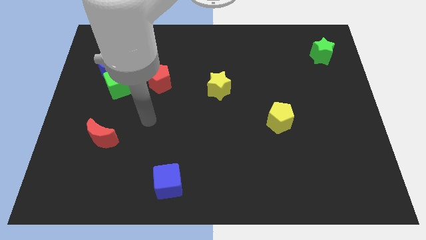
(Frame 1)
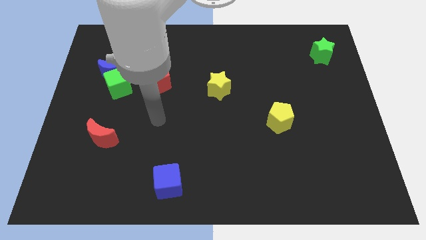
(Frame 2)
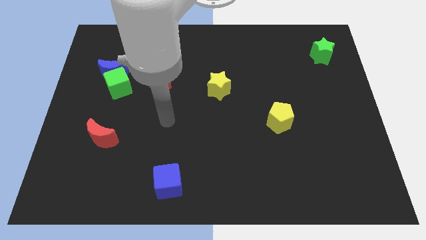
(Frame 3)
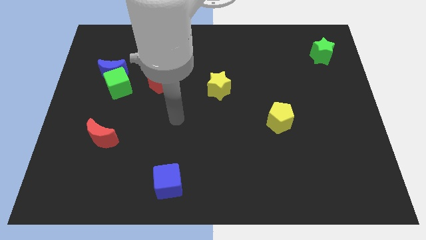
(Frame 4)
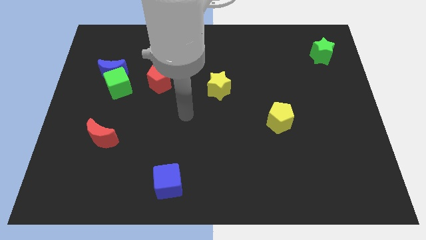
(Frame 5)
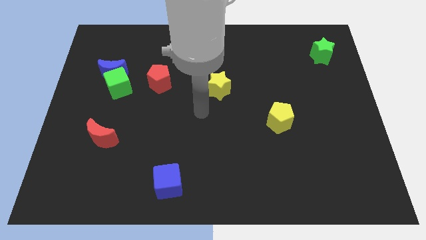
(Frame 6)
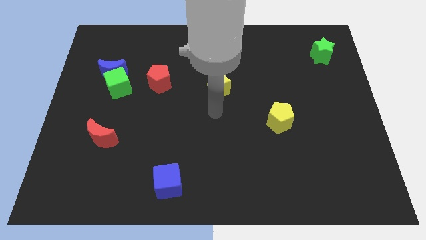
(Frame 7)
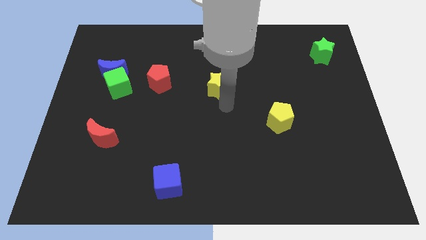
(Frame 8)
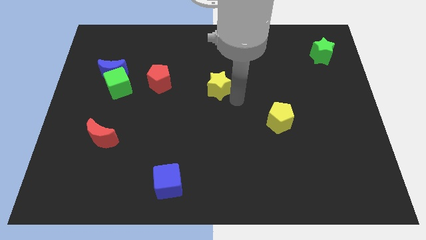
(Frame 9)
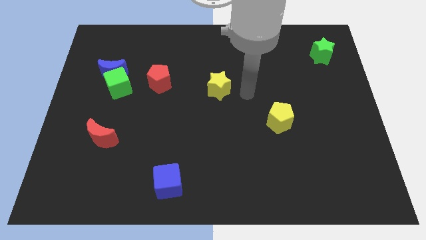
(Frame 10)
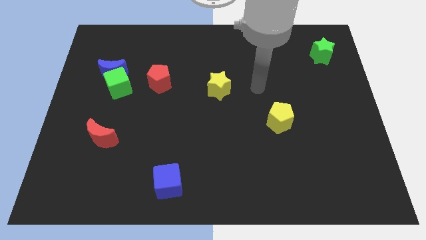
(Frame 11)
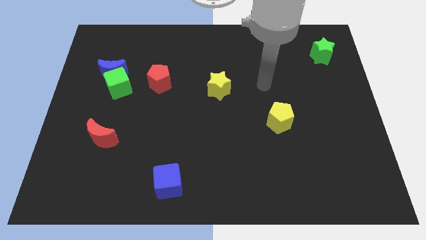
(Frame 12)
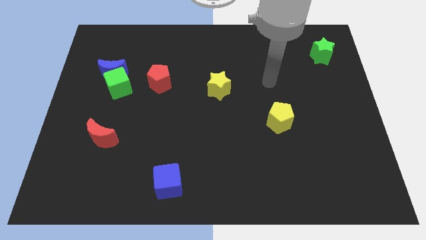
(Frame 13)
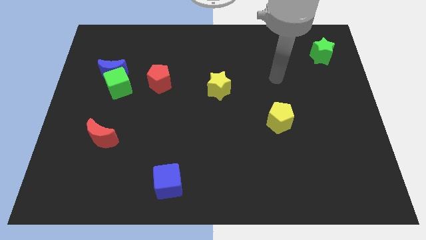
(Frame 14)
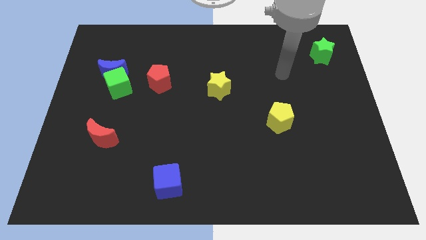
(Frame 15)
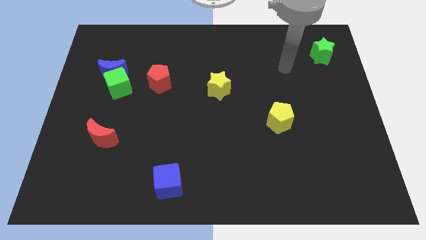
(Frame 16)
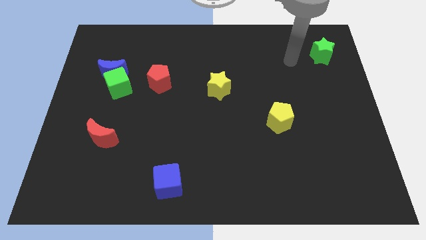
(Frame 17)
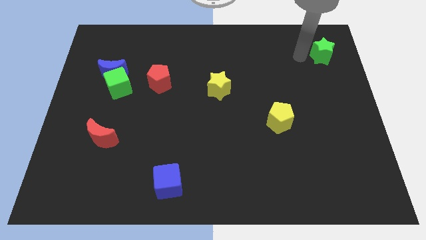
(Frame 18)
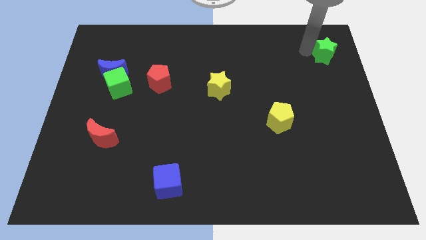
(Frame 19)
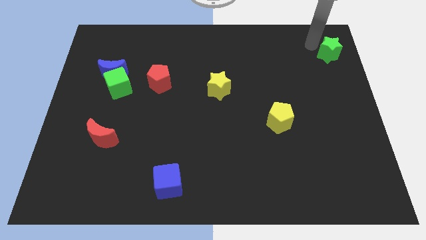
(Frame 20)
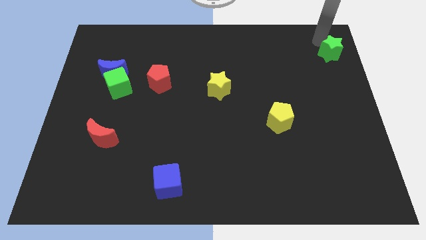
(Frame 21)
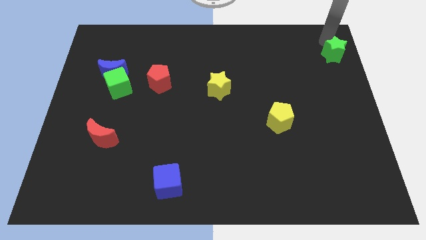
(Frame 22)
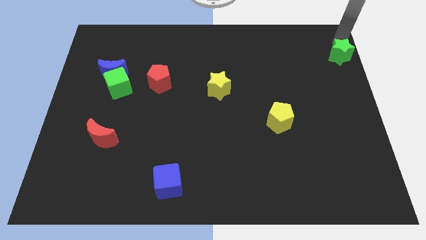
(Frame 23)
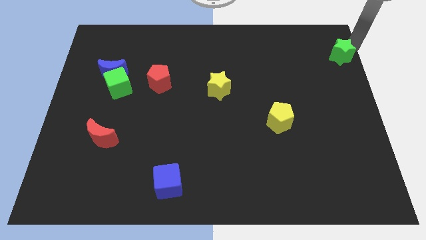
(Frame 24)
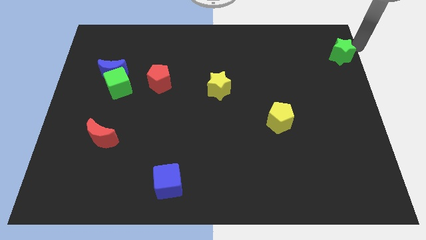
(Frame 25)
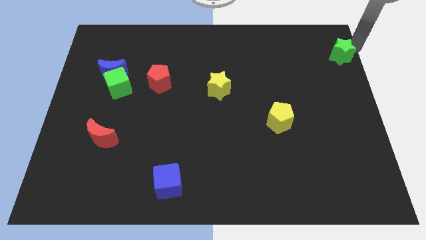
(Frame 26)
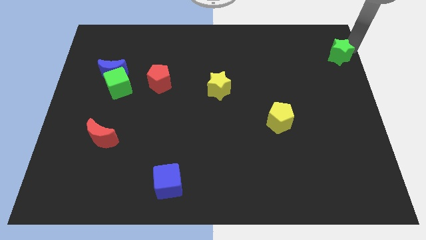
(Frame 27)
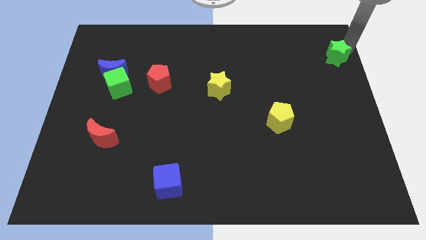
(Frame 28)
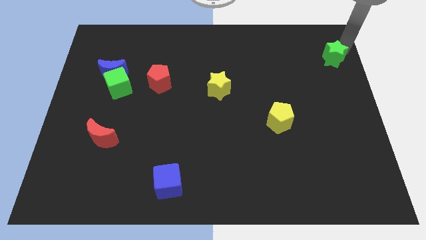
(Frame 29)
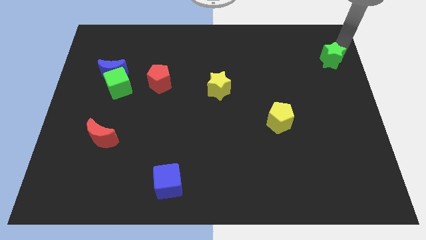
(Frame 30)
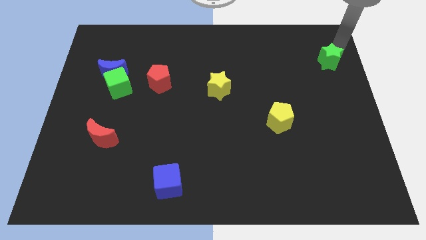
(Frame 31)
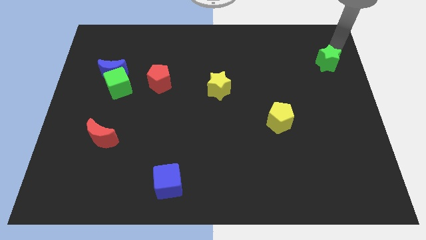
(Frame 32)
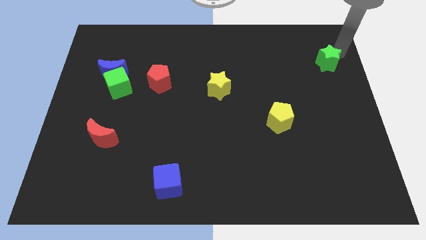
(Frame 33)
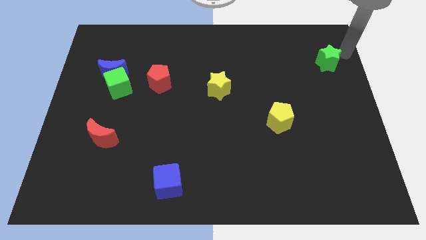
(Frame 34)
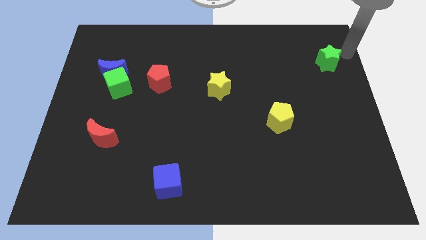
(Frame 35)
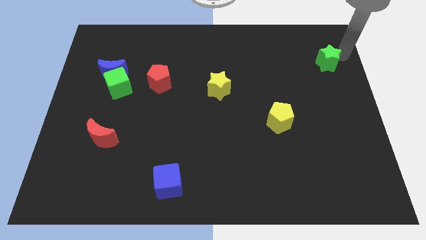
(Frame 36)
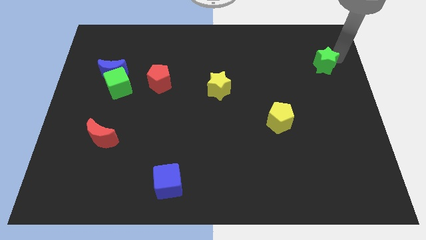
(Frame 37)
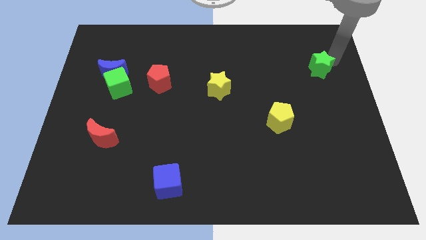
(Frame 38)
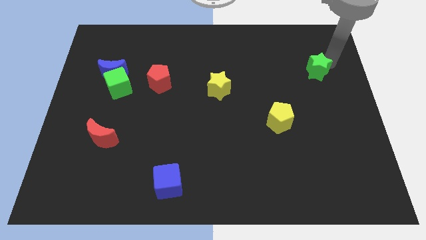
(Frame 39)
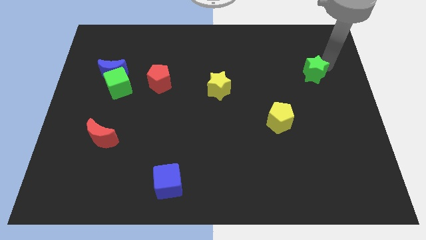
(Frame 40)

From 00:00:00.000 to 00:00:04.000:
slide the green star slightly down and left diagonally

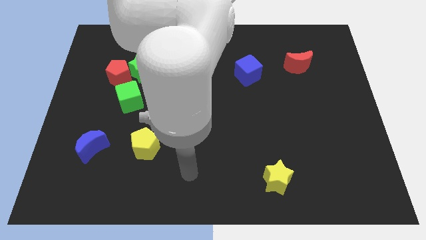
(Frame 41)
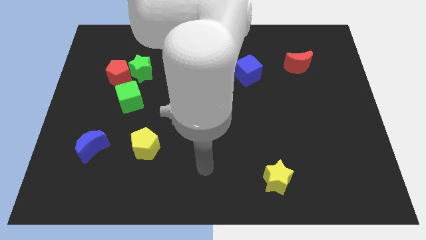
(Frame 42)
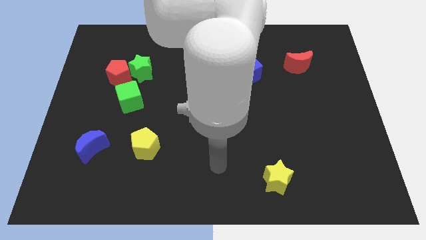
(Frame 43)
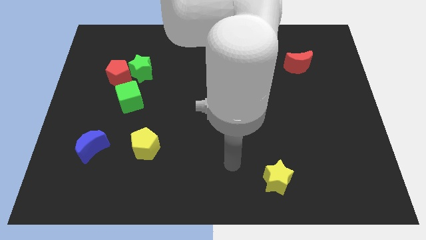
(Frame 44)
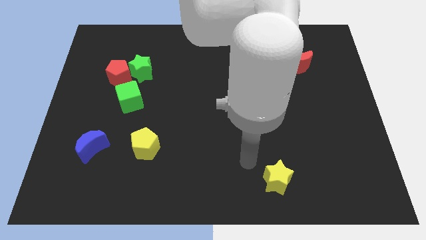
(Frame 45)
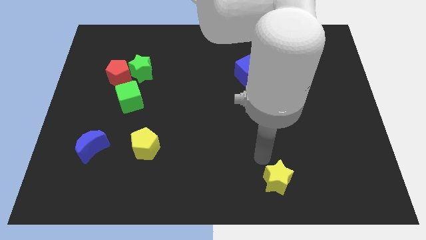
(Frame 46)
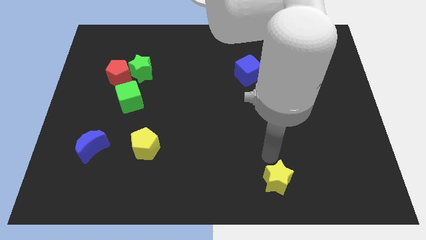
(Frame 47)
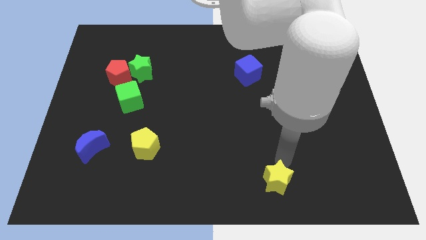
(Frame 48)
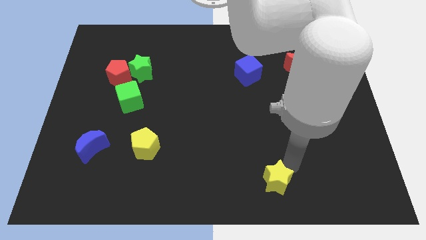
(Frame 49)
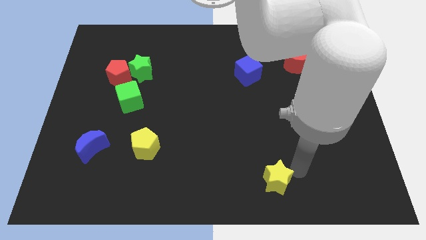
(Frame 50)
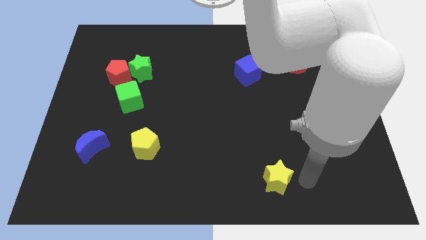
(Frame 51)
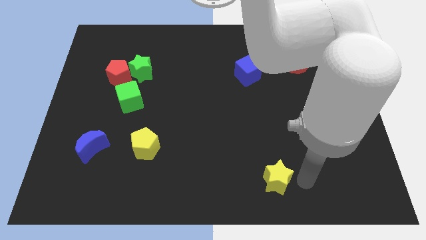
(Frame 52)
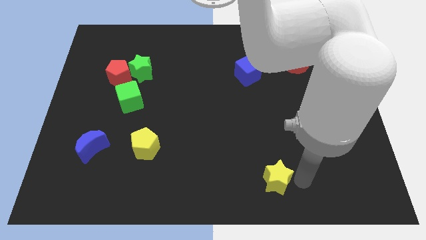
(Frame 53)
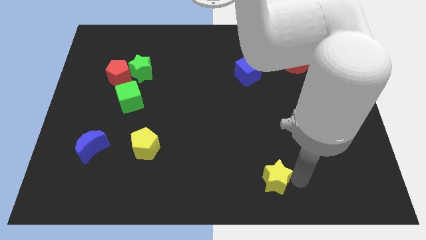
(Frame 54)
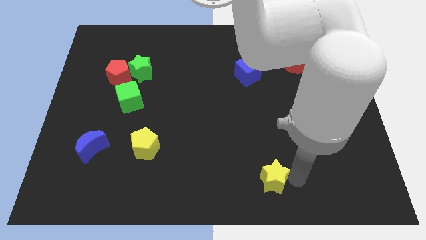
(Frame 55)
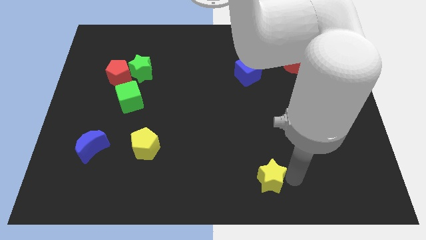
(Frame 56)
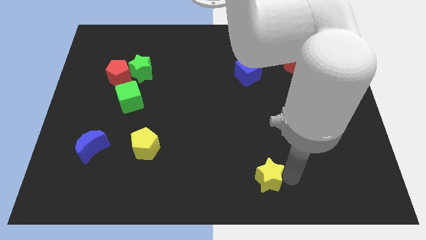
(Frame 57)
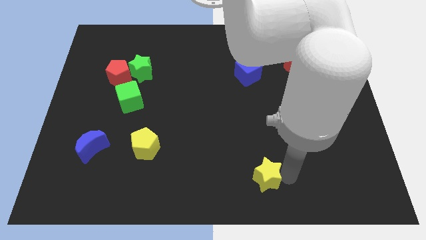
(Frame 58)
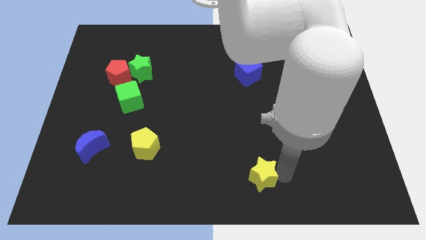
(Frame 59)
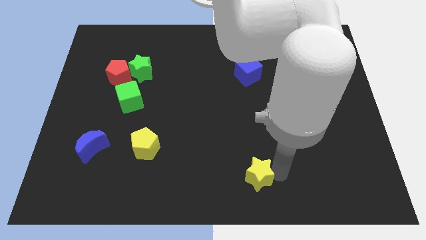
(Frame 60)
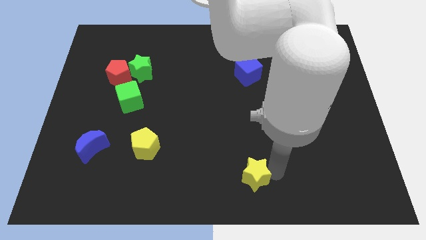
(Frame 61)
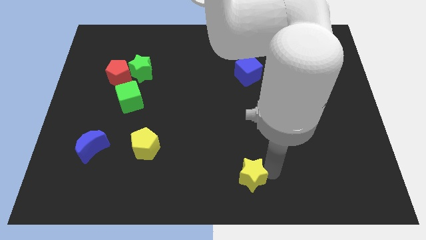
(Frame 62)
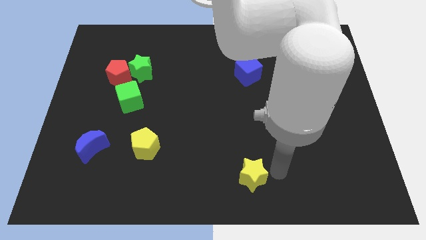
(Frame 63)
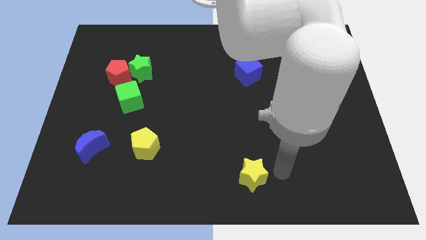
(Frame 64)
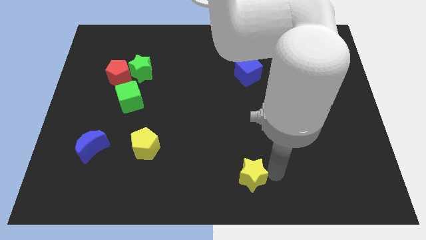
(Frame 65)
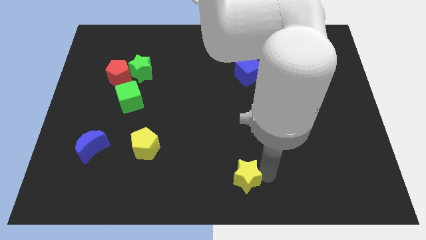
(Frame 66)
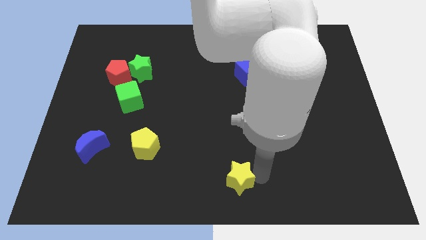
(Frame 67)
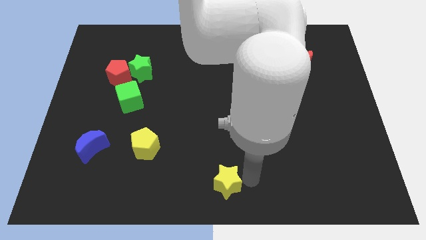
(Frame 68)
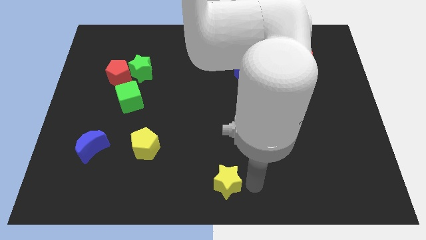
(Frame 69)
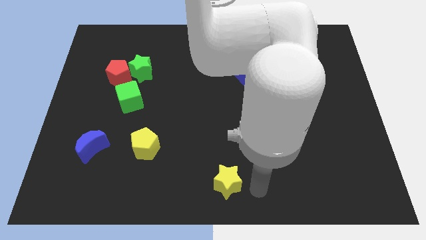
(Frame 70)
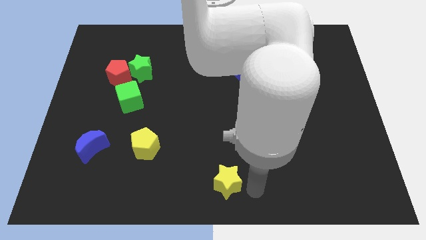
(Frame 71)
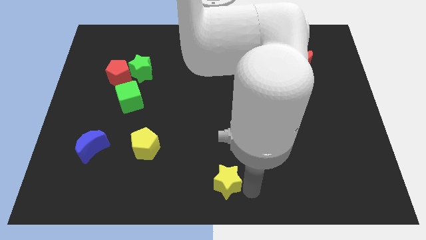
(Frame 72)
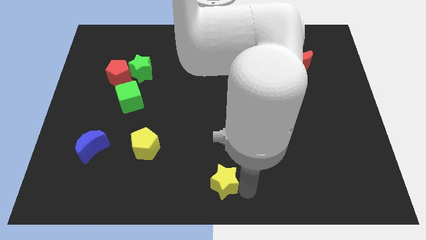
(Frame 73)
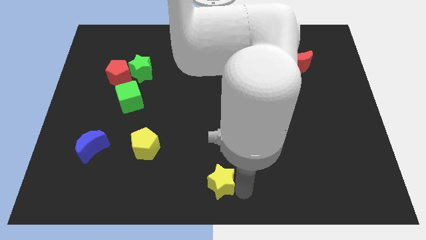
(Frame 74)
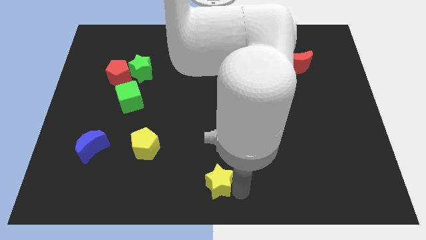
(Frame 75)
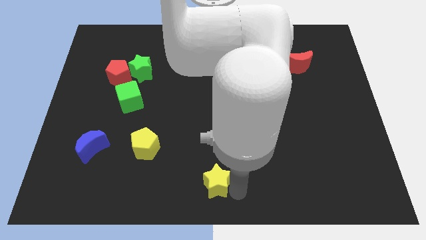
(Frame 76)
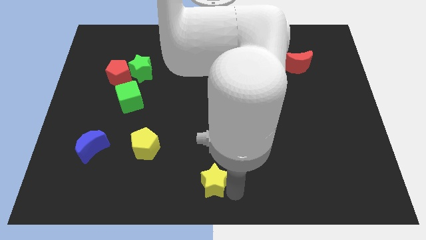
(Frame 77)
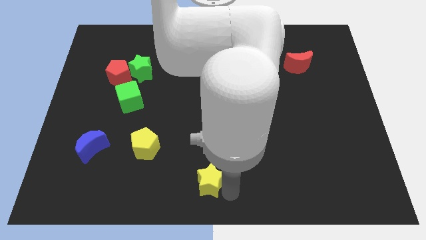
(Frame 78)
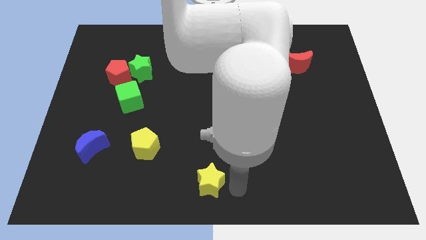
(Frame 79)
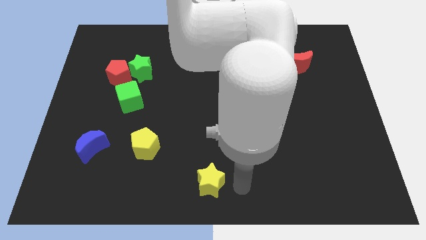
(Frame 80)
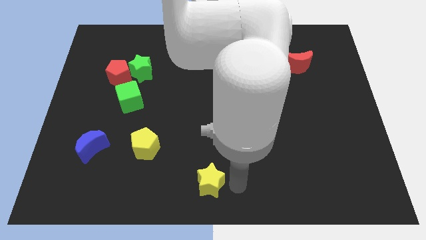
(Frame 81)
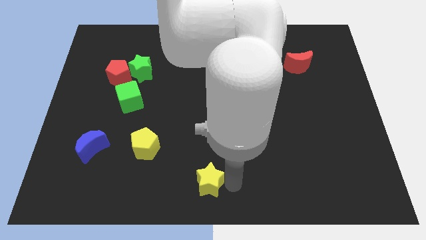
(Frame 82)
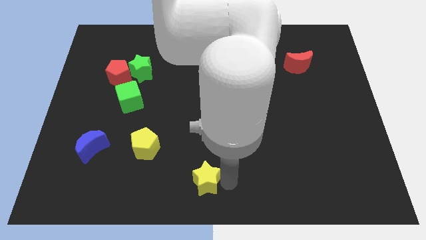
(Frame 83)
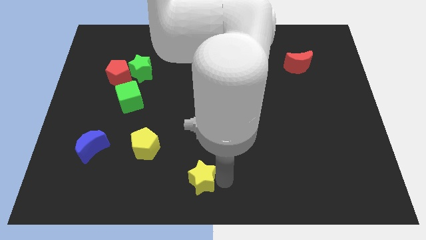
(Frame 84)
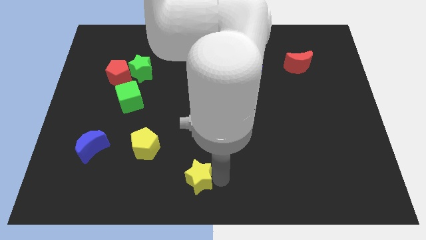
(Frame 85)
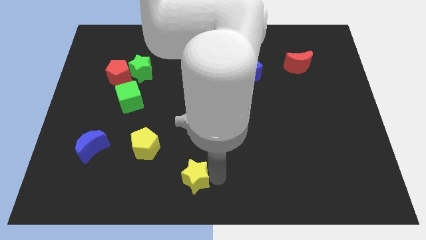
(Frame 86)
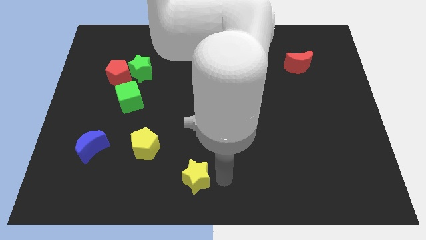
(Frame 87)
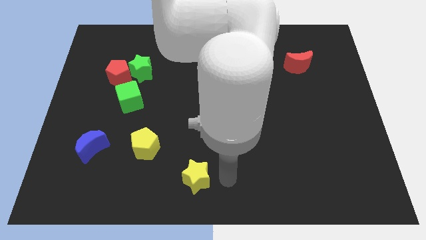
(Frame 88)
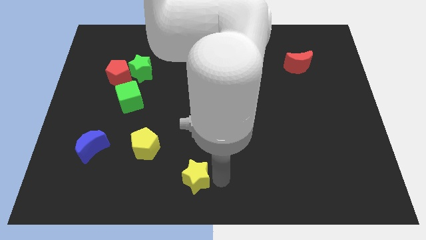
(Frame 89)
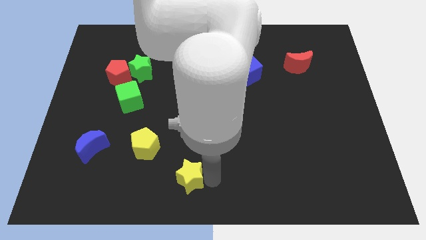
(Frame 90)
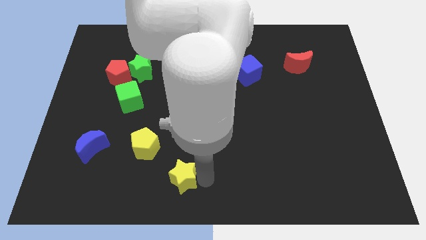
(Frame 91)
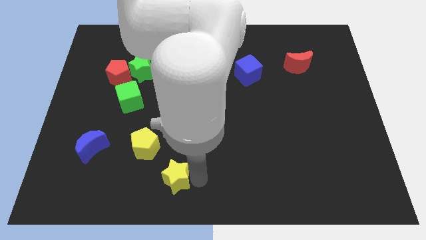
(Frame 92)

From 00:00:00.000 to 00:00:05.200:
slide the yellow star to the left
